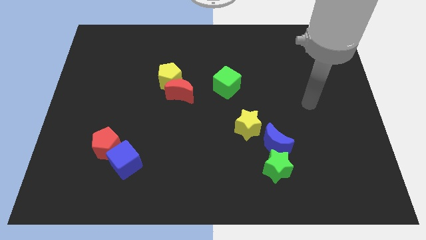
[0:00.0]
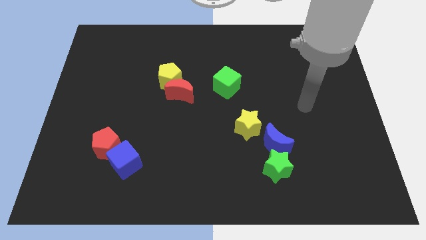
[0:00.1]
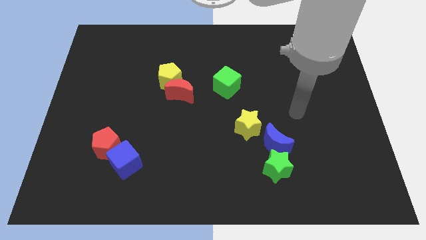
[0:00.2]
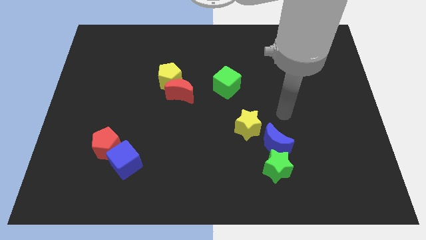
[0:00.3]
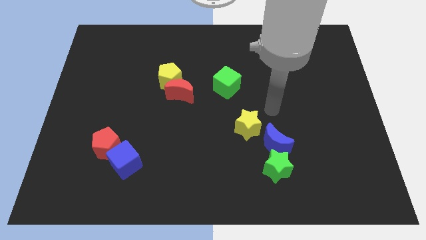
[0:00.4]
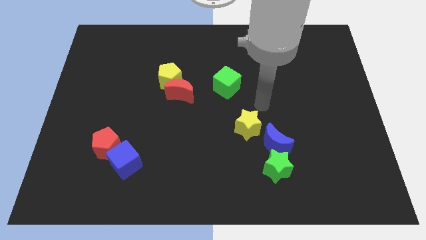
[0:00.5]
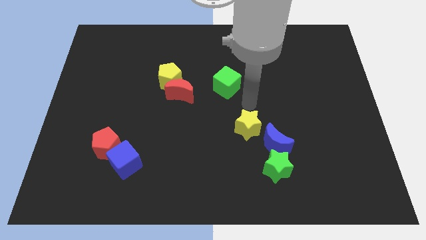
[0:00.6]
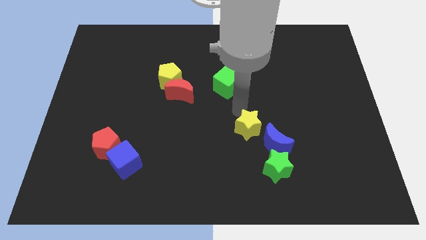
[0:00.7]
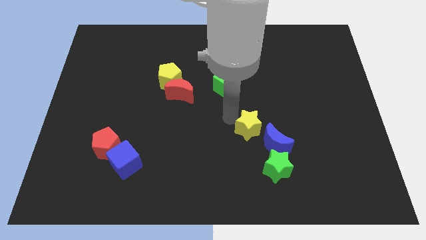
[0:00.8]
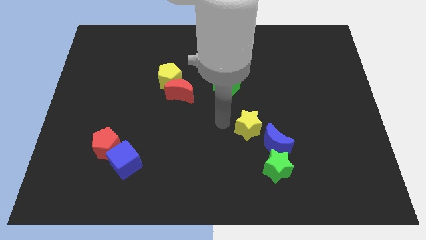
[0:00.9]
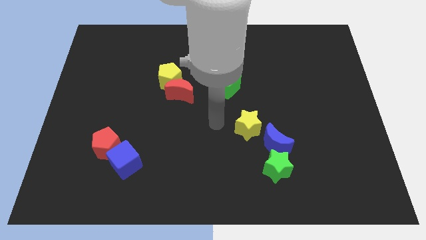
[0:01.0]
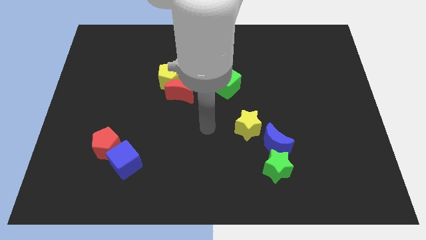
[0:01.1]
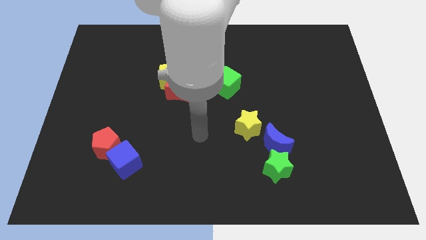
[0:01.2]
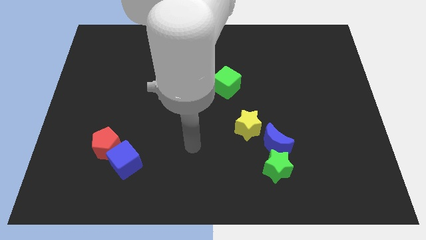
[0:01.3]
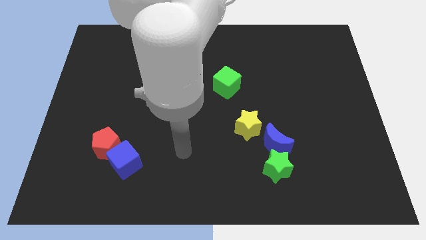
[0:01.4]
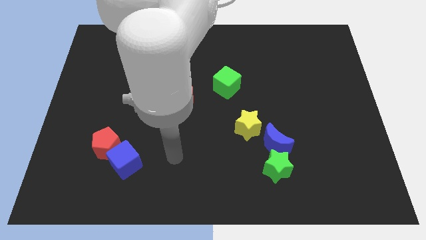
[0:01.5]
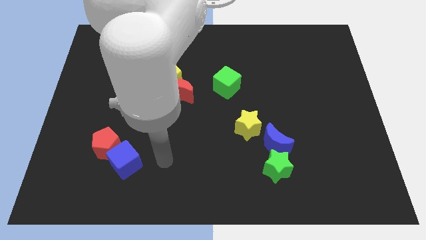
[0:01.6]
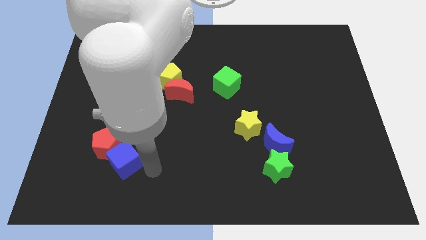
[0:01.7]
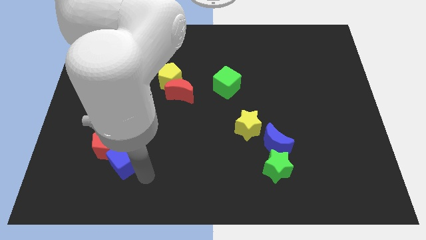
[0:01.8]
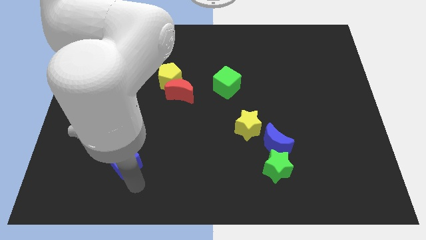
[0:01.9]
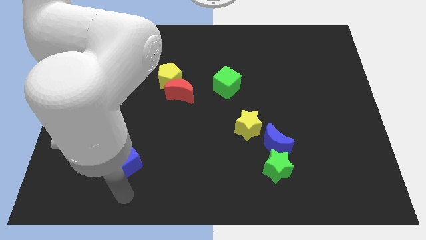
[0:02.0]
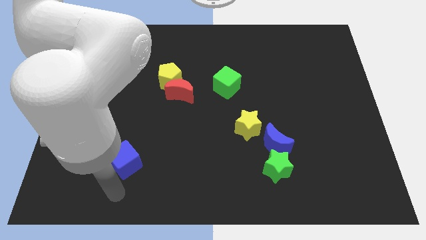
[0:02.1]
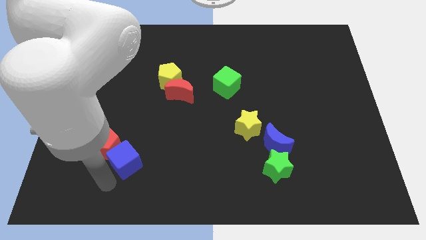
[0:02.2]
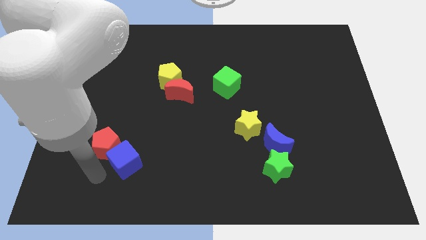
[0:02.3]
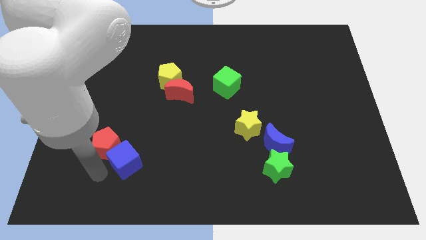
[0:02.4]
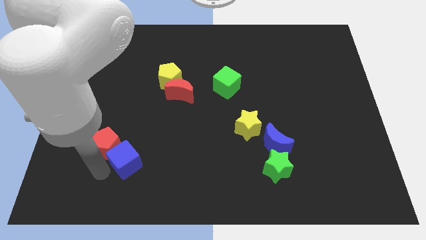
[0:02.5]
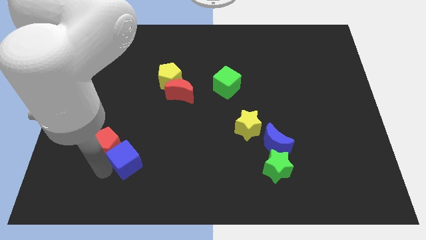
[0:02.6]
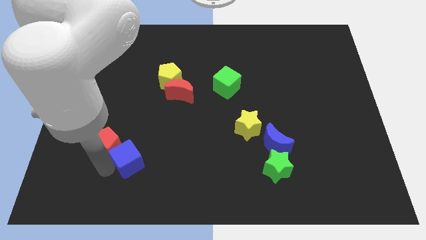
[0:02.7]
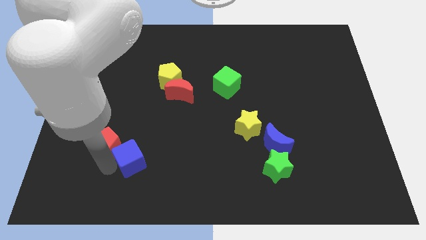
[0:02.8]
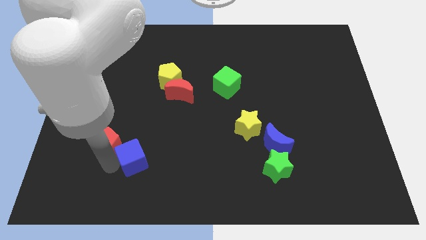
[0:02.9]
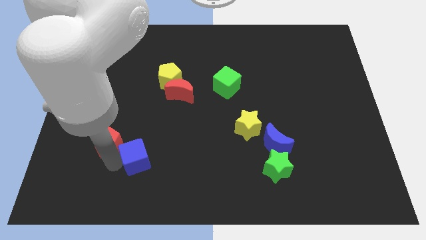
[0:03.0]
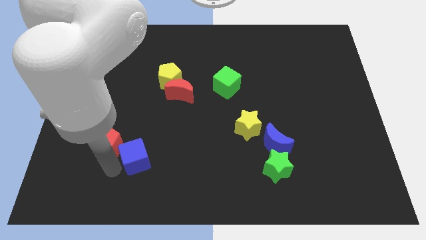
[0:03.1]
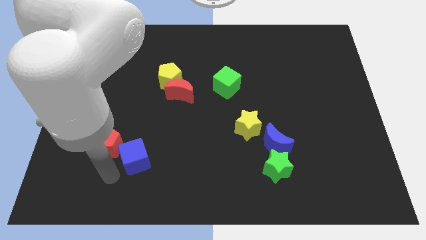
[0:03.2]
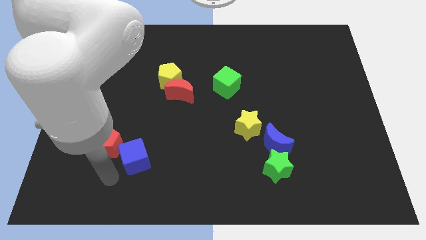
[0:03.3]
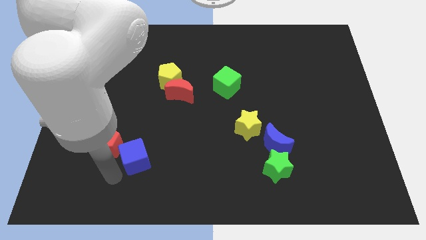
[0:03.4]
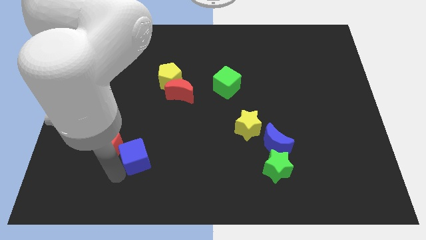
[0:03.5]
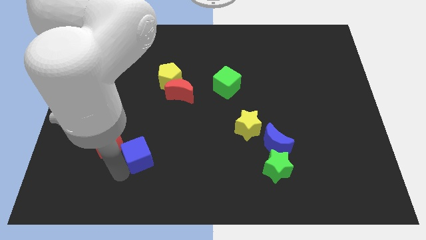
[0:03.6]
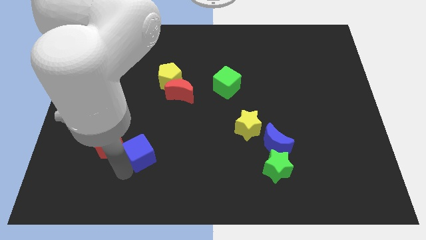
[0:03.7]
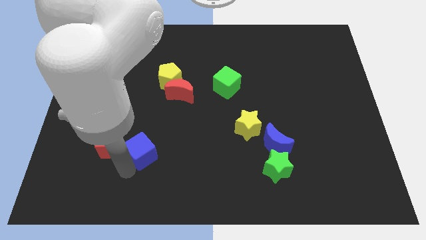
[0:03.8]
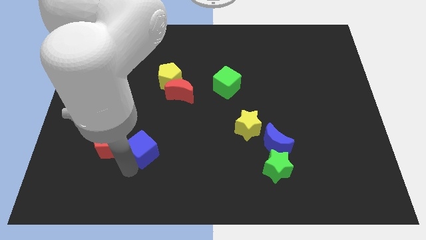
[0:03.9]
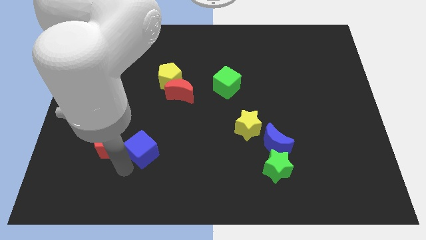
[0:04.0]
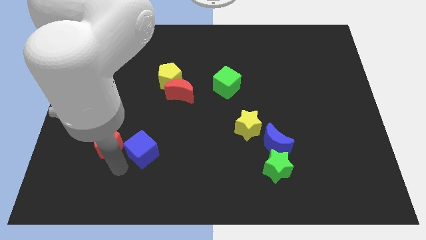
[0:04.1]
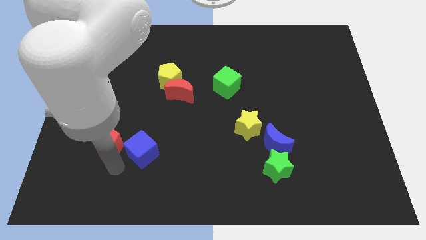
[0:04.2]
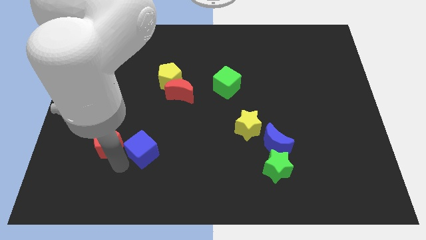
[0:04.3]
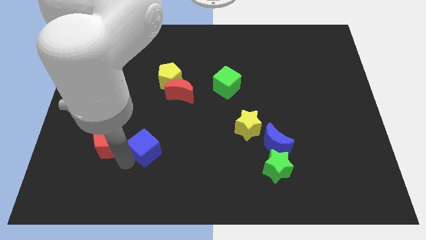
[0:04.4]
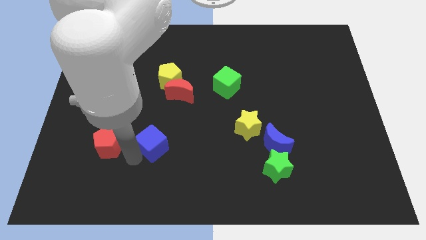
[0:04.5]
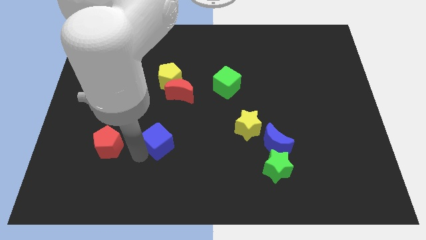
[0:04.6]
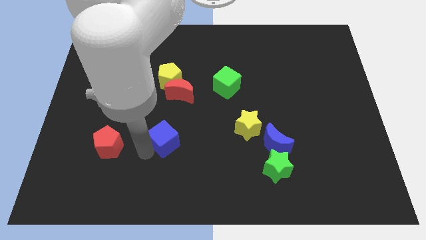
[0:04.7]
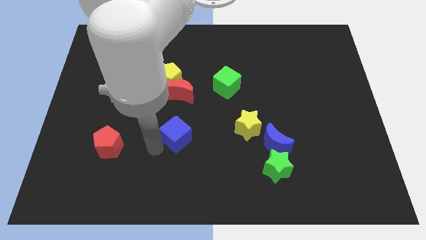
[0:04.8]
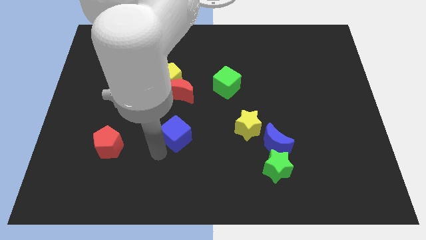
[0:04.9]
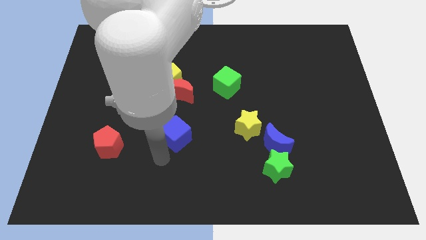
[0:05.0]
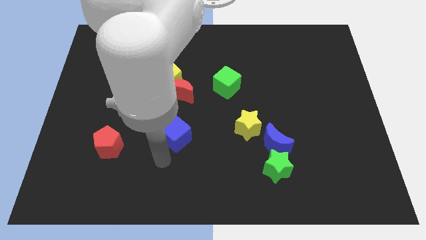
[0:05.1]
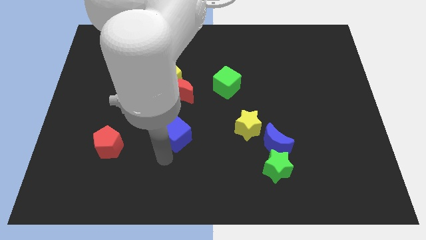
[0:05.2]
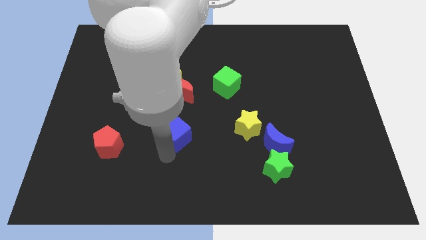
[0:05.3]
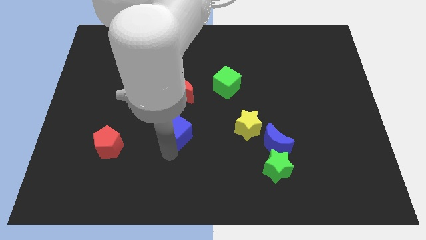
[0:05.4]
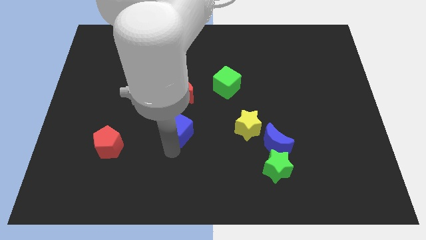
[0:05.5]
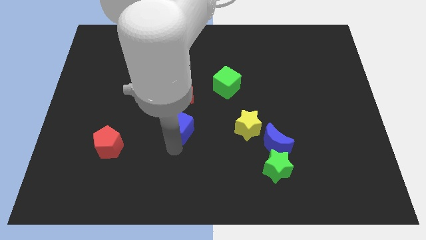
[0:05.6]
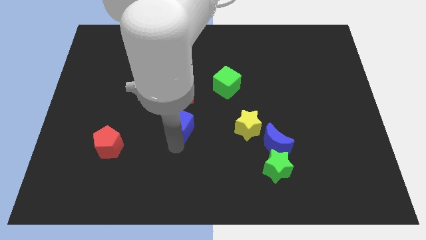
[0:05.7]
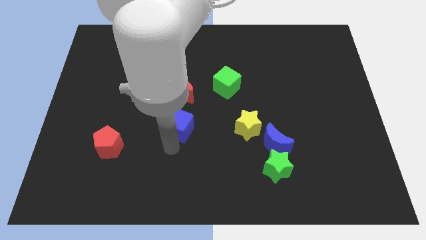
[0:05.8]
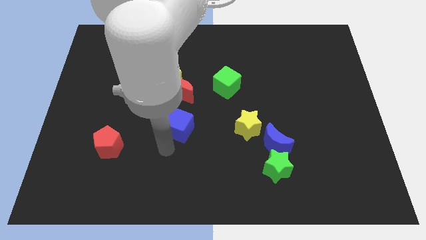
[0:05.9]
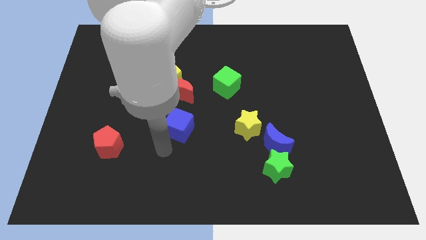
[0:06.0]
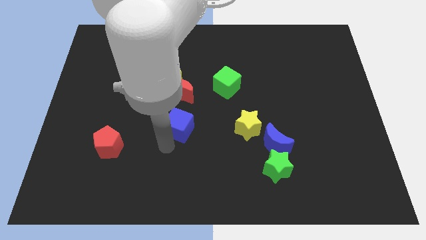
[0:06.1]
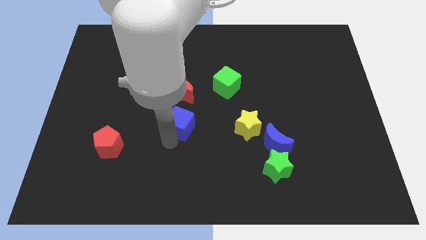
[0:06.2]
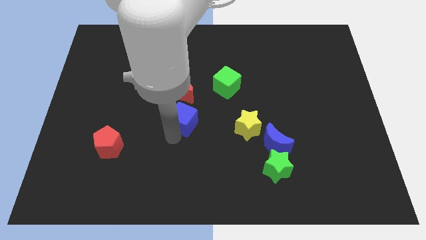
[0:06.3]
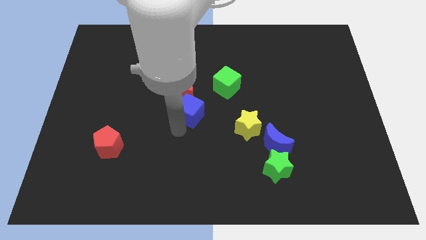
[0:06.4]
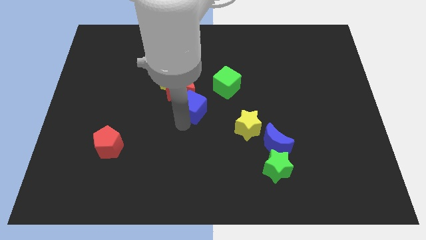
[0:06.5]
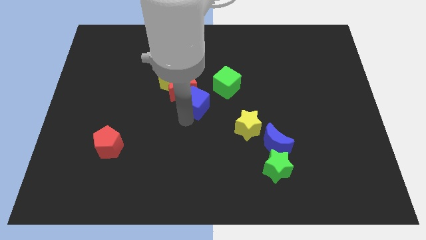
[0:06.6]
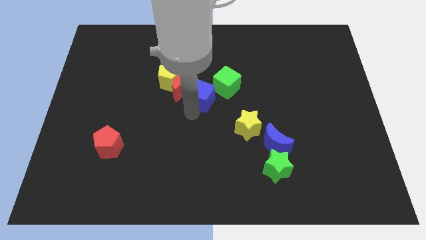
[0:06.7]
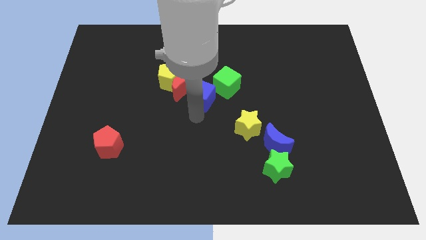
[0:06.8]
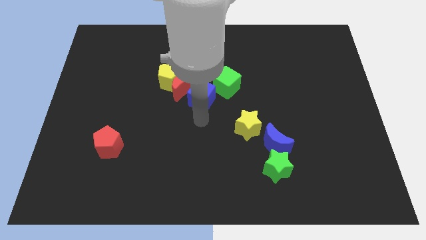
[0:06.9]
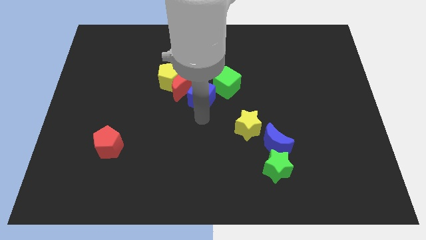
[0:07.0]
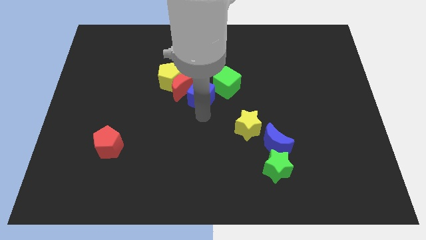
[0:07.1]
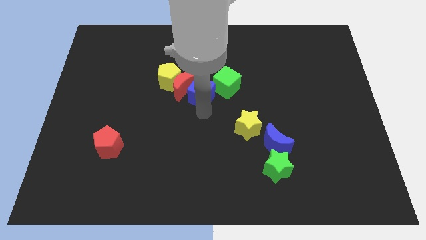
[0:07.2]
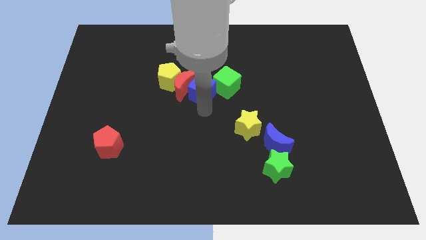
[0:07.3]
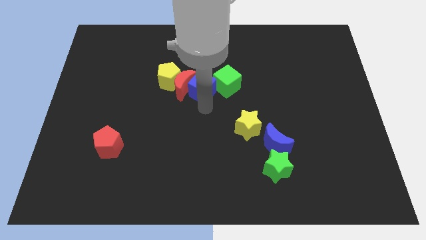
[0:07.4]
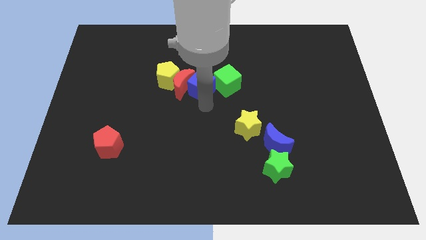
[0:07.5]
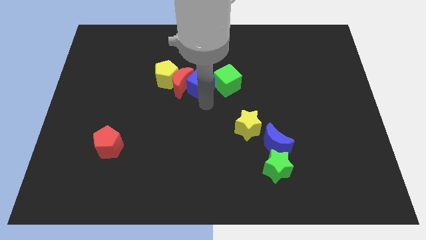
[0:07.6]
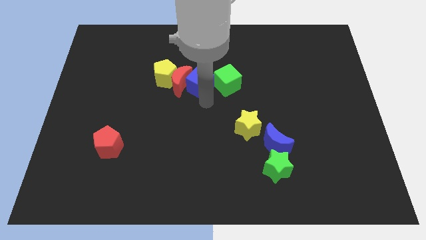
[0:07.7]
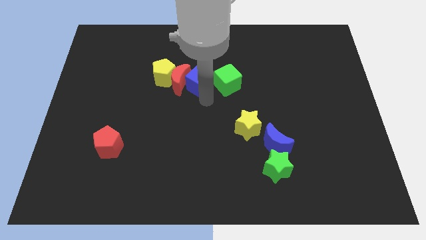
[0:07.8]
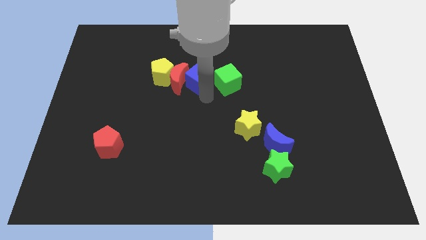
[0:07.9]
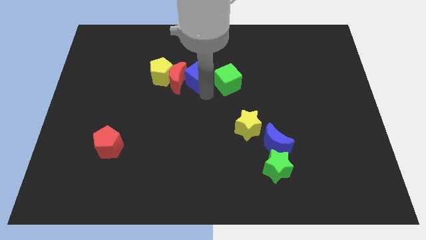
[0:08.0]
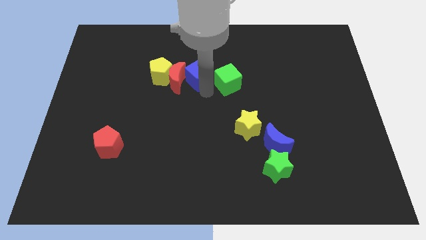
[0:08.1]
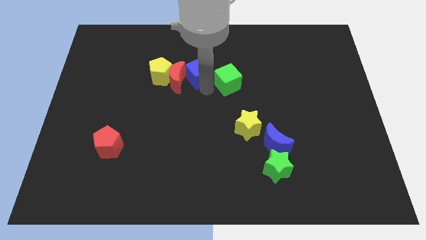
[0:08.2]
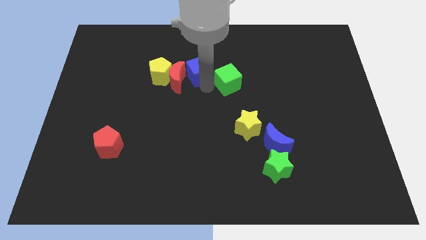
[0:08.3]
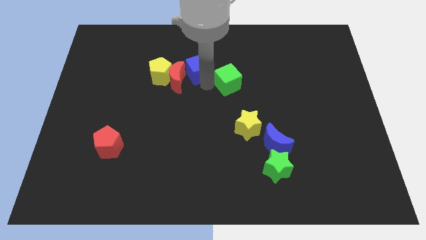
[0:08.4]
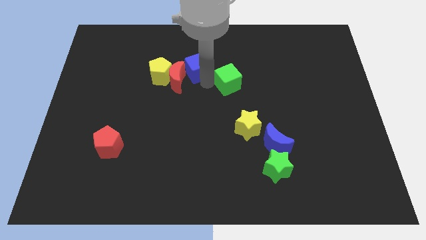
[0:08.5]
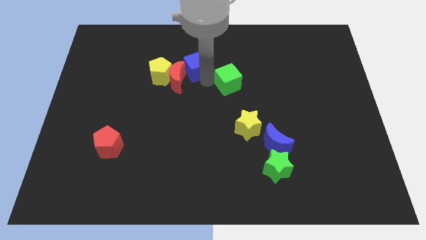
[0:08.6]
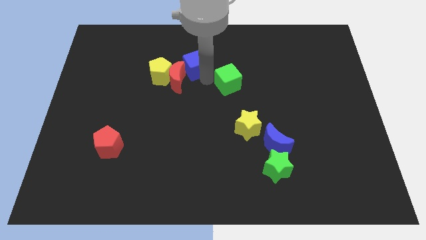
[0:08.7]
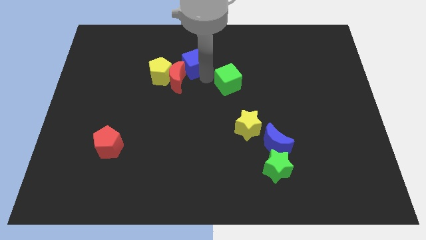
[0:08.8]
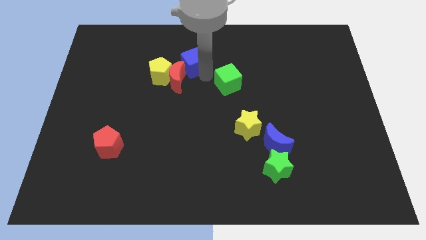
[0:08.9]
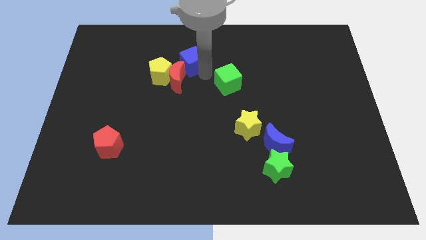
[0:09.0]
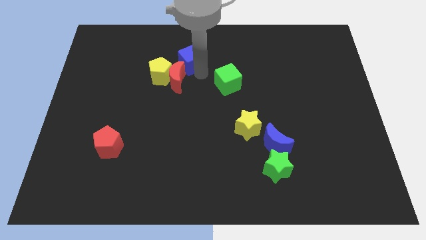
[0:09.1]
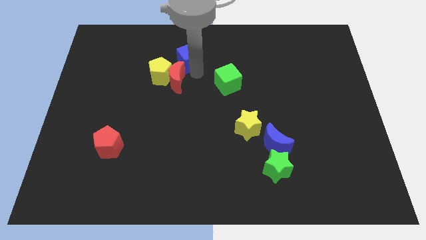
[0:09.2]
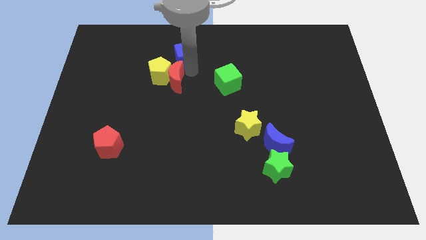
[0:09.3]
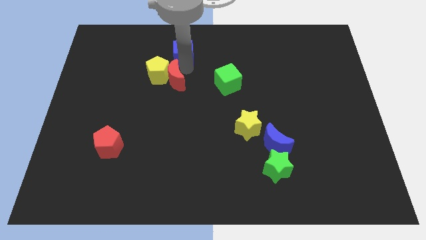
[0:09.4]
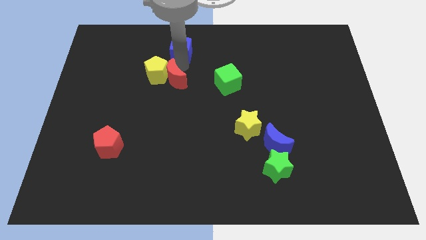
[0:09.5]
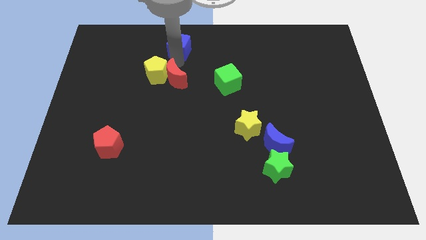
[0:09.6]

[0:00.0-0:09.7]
slide the blue cube to the towards your base
